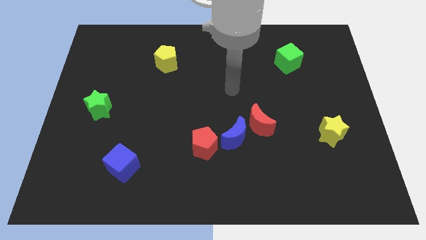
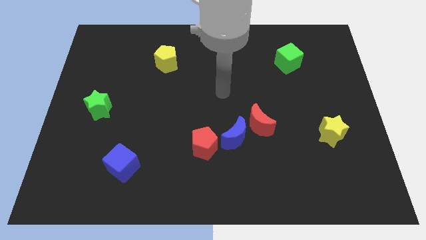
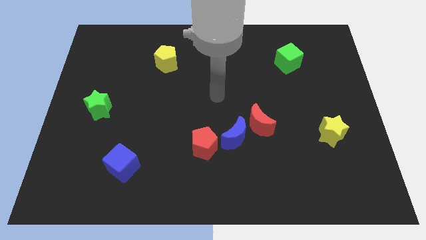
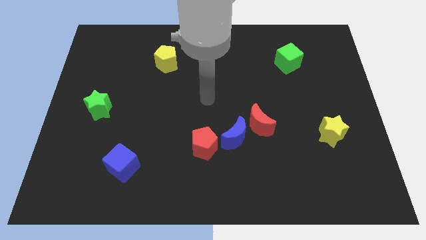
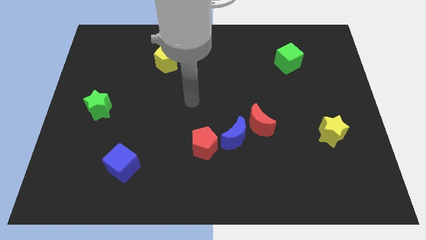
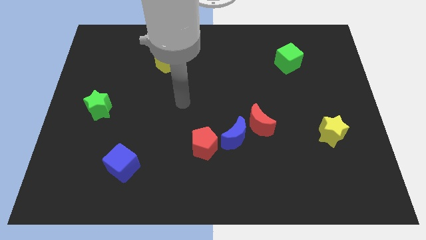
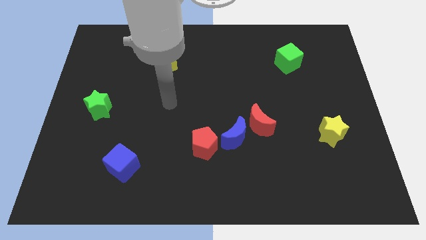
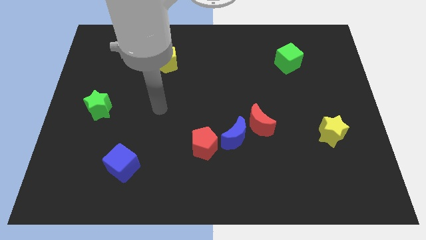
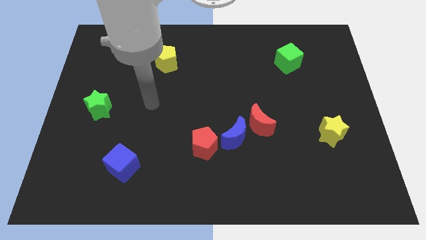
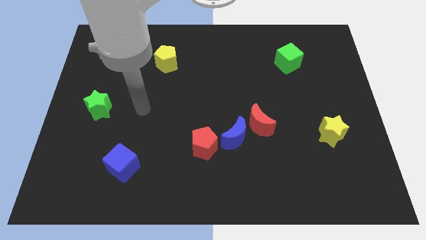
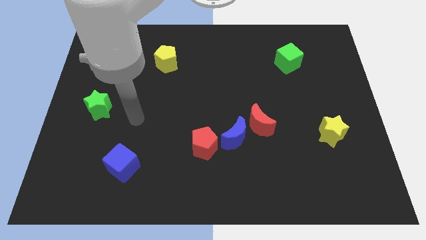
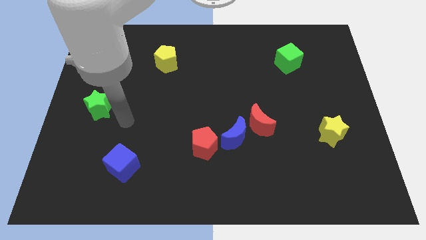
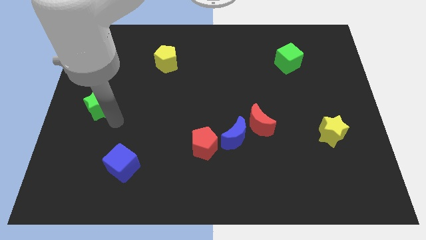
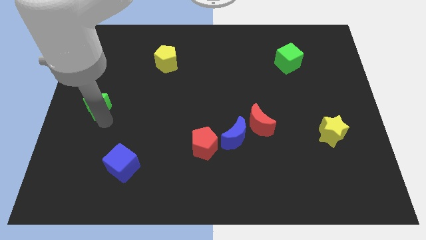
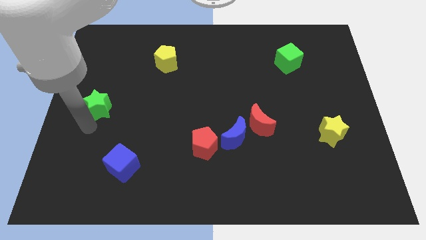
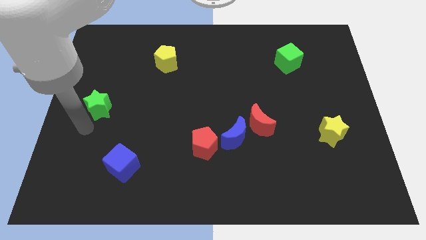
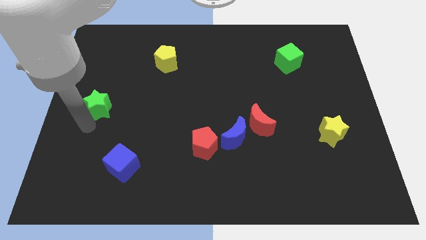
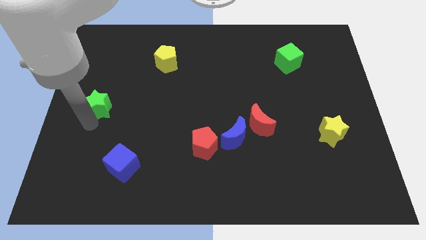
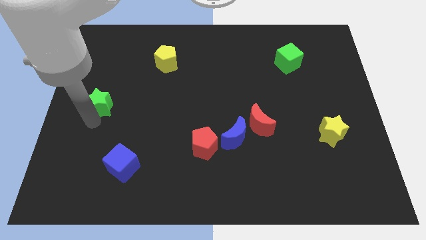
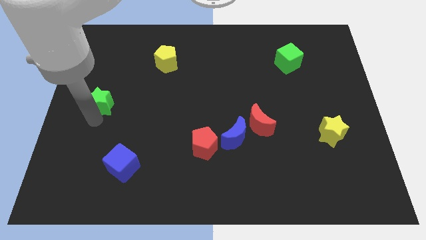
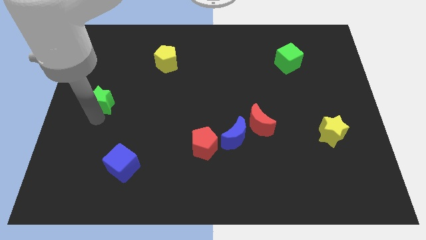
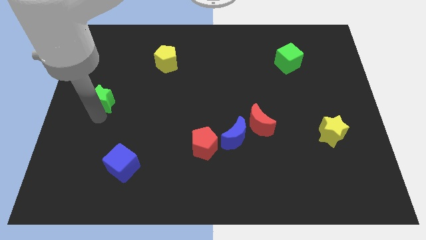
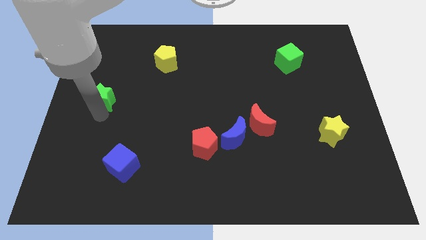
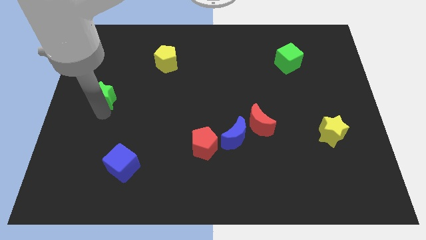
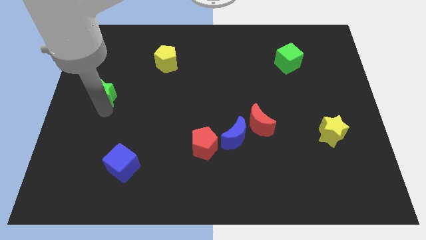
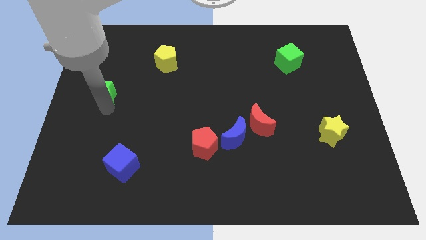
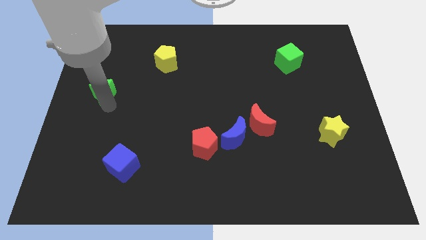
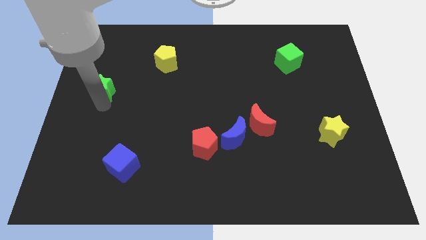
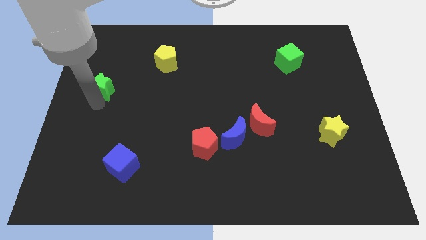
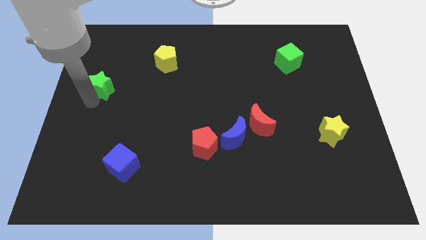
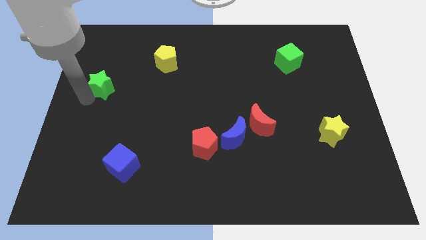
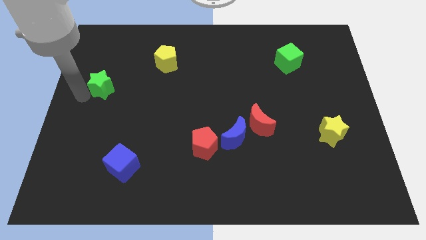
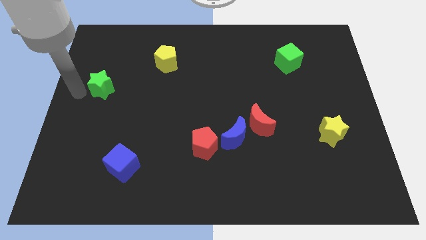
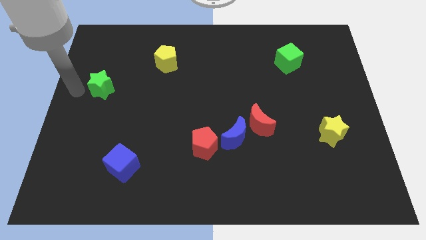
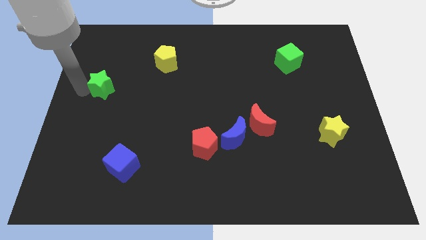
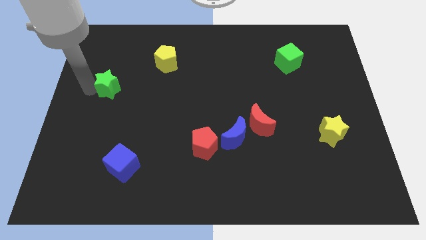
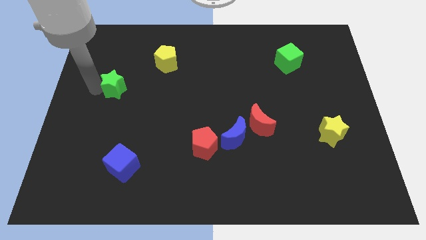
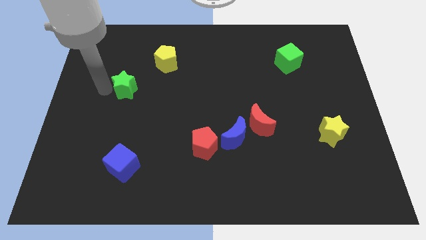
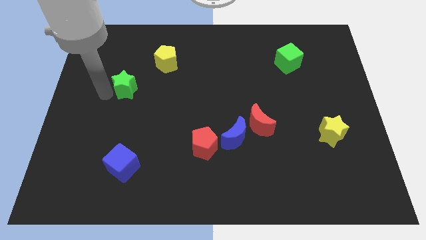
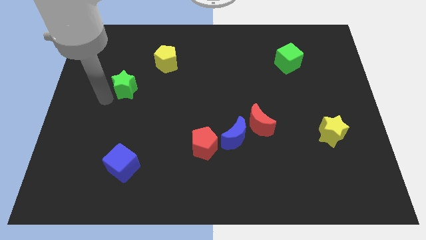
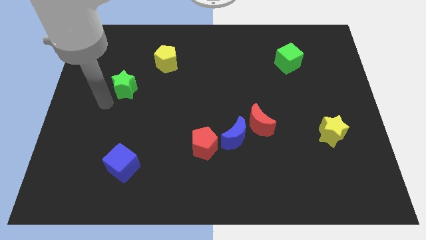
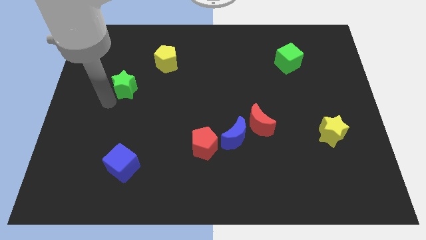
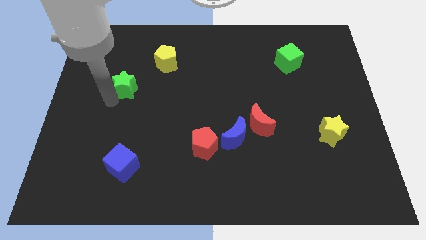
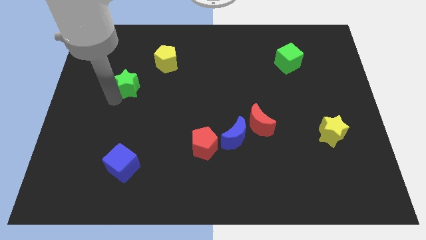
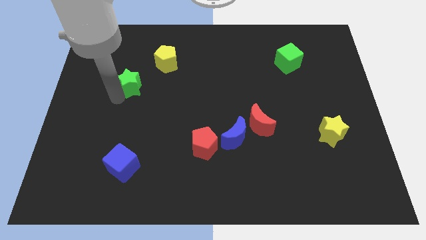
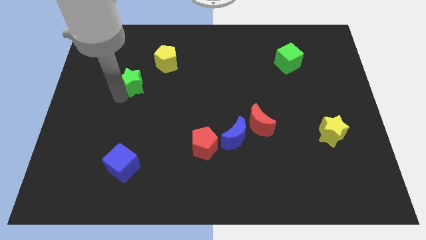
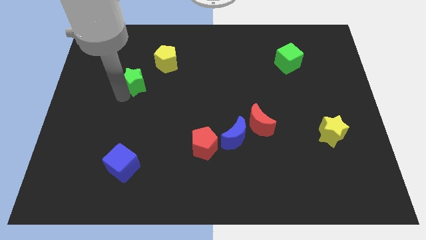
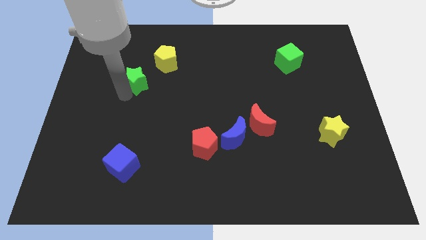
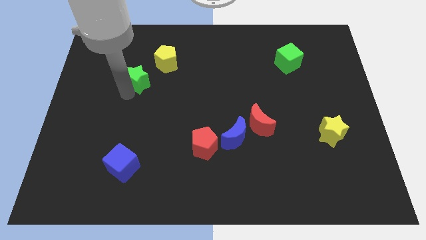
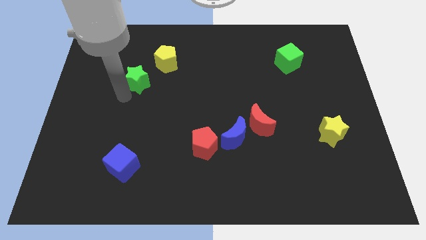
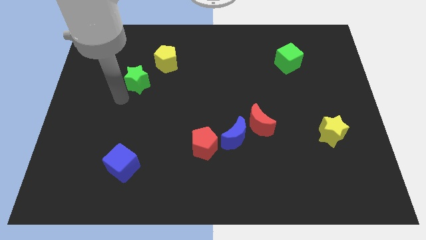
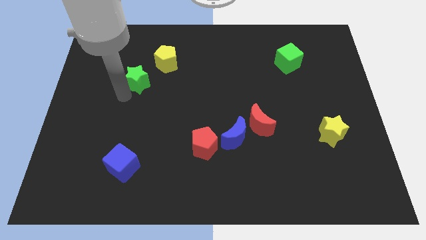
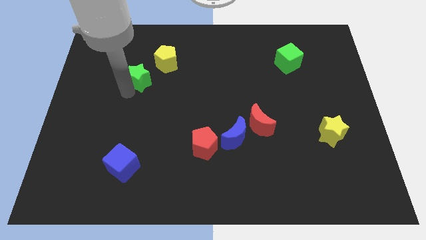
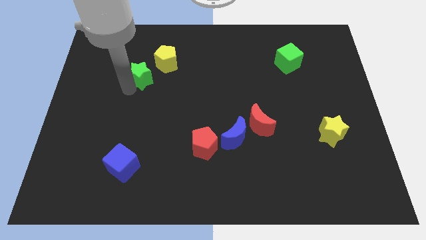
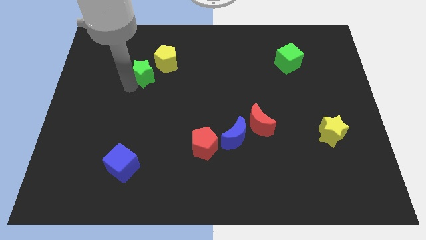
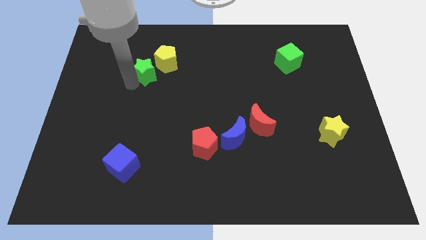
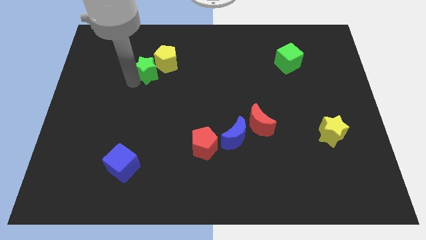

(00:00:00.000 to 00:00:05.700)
put the green star towards the yellow pentagon

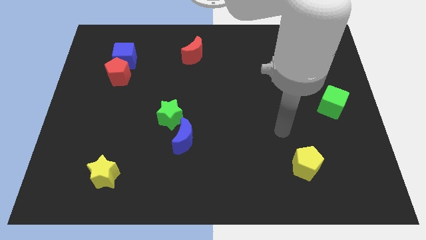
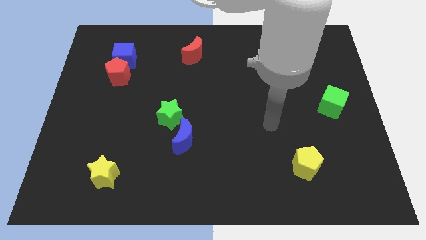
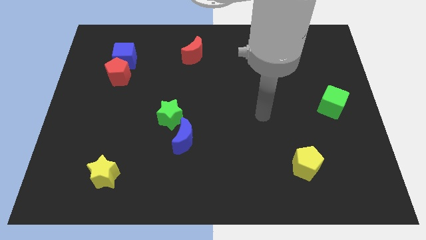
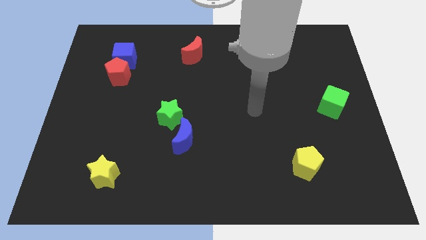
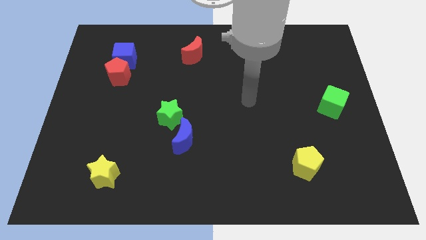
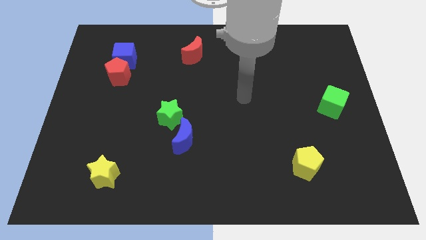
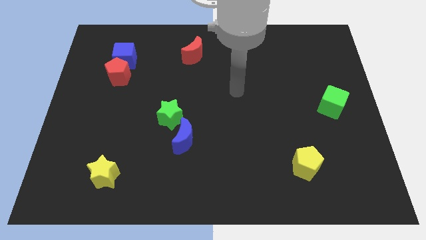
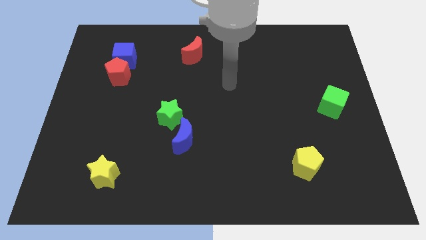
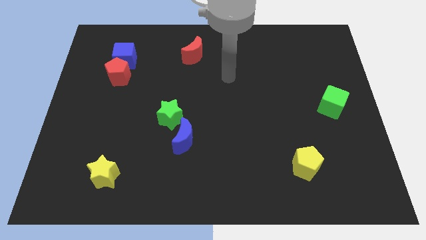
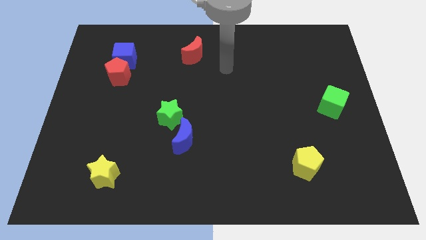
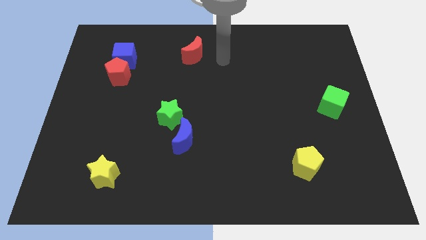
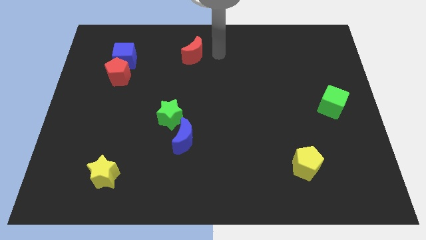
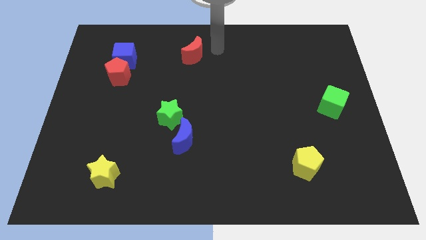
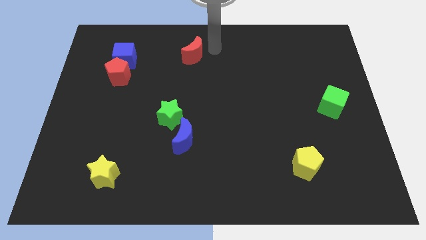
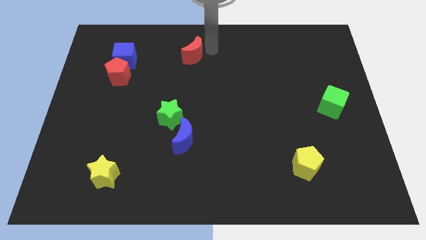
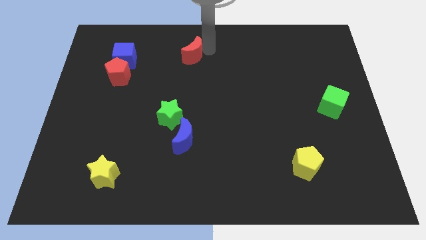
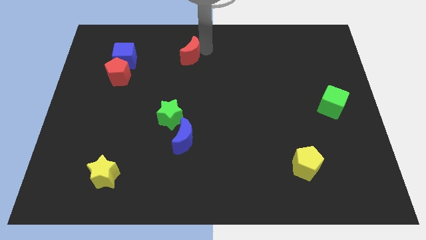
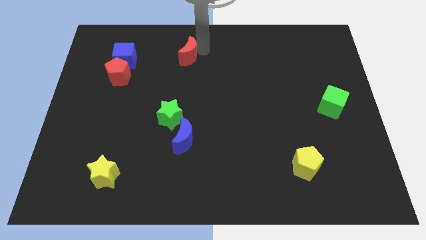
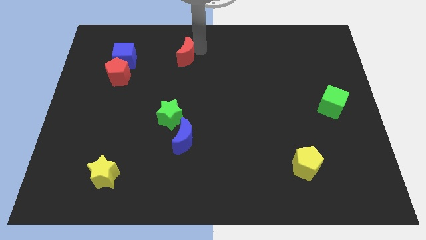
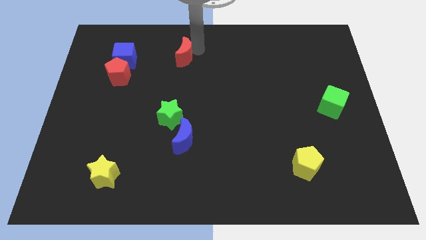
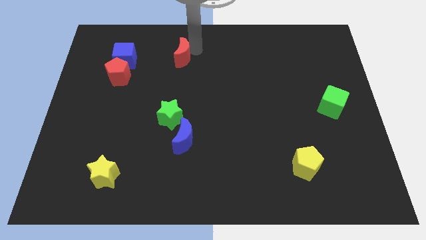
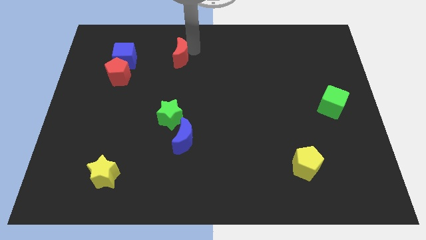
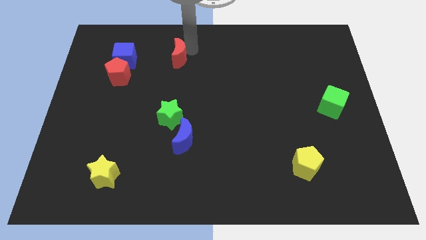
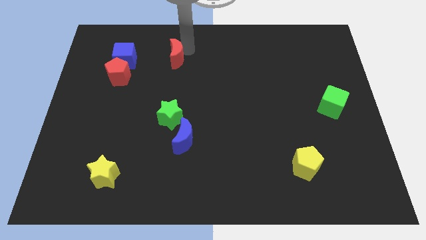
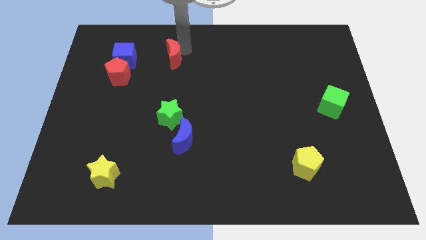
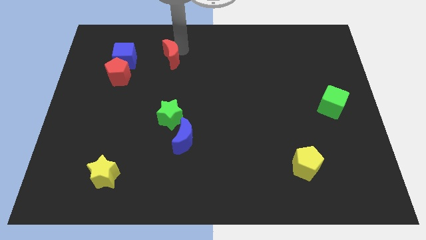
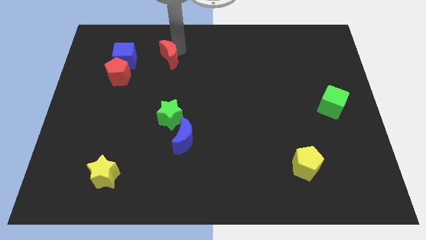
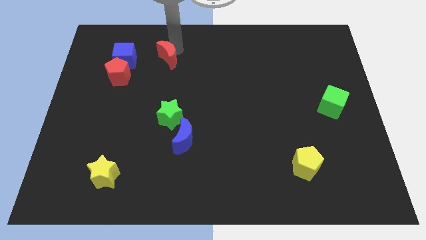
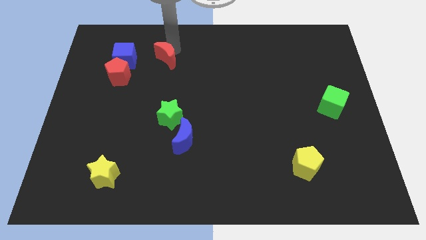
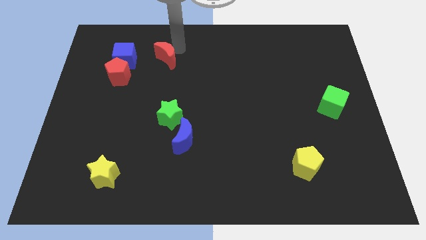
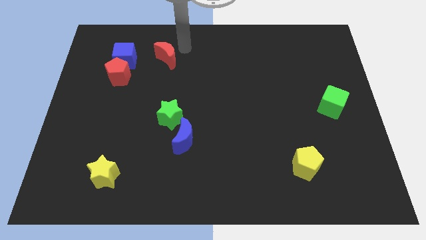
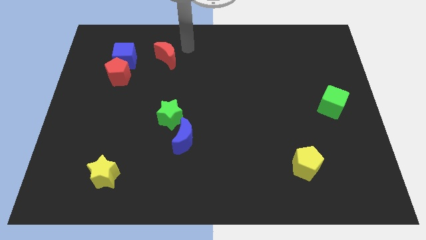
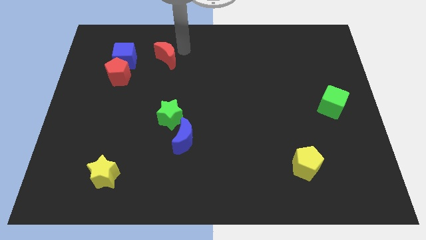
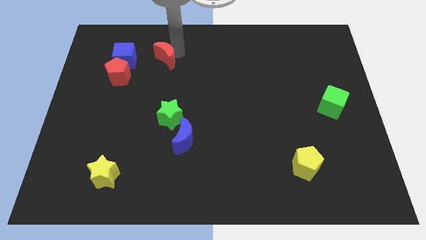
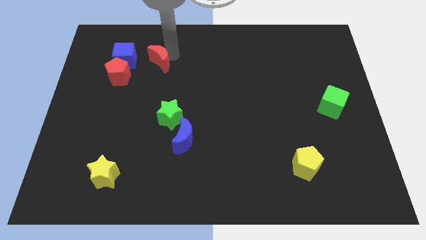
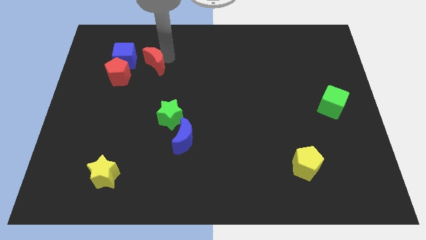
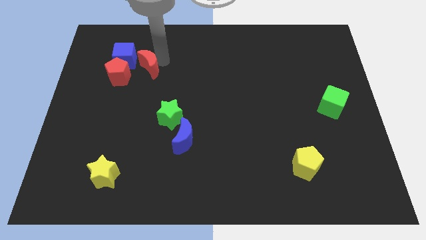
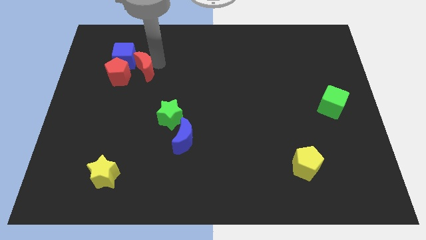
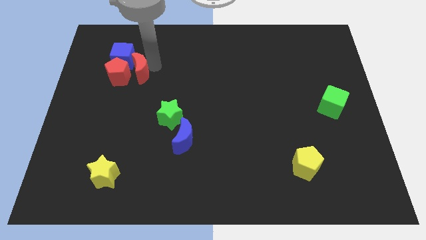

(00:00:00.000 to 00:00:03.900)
move the red moon towards the red pentagon
